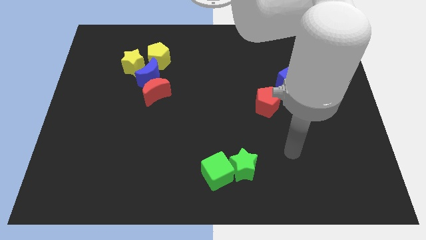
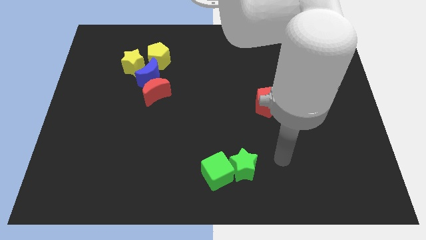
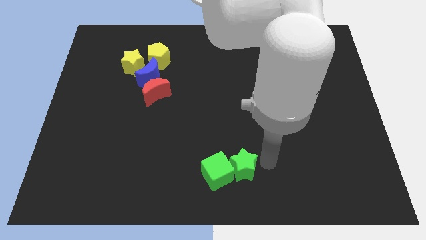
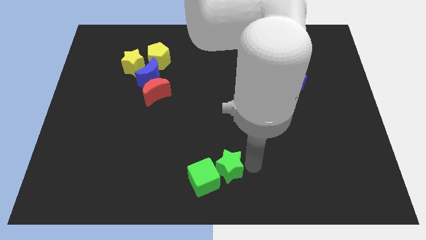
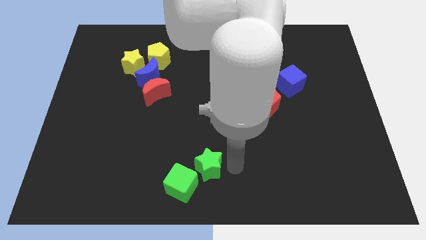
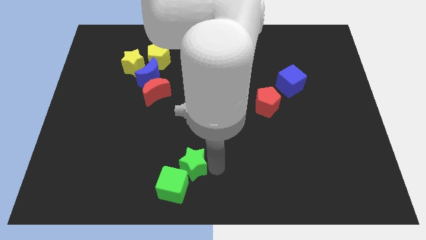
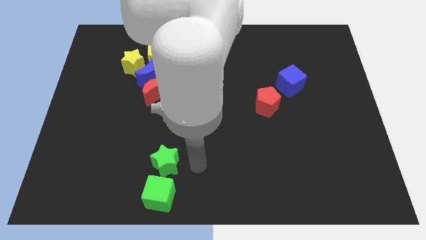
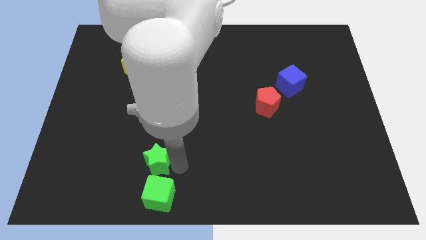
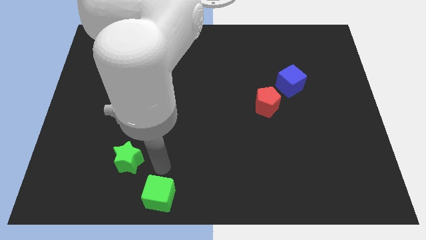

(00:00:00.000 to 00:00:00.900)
move the green cube away from the green star

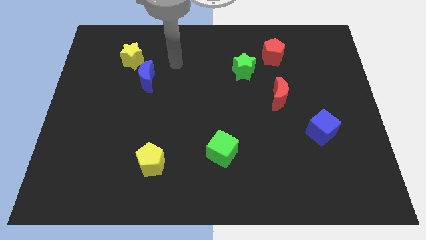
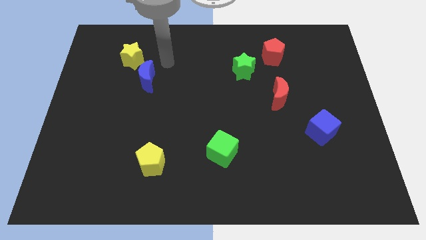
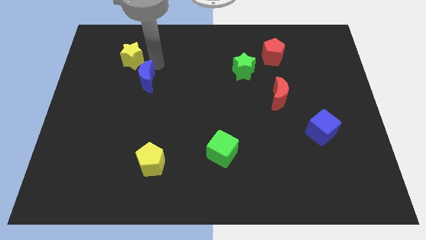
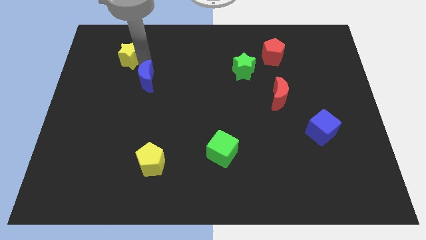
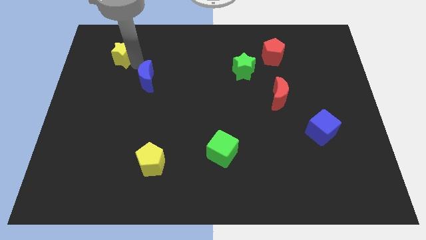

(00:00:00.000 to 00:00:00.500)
move the blue moon away from the yellow star

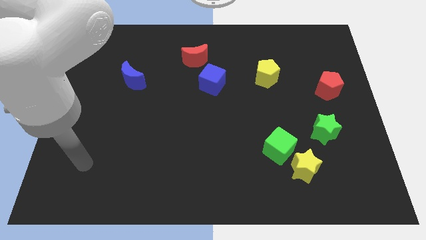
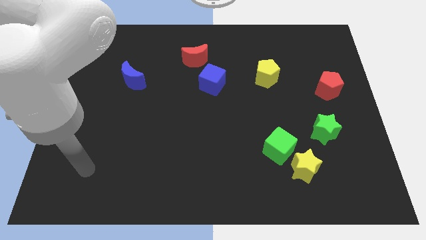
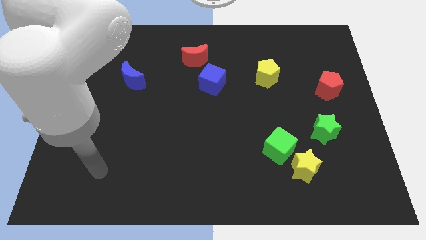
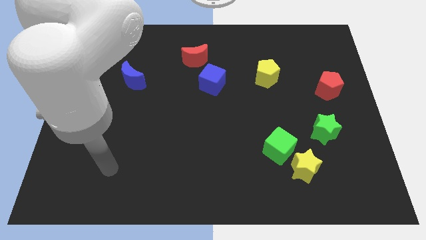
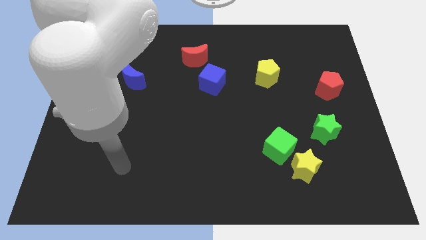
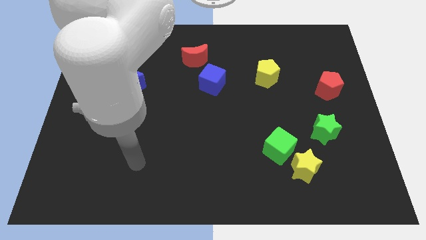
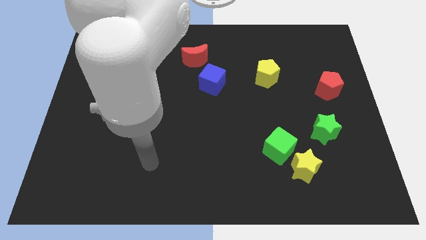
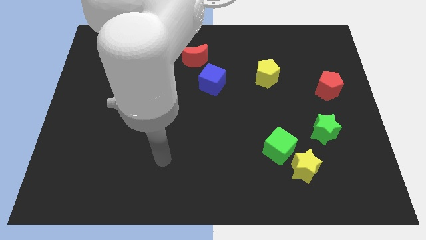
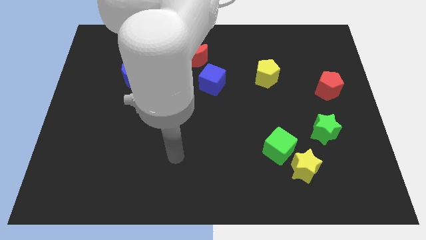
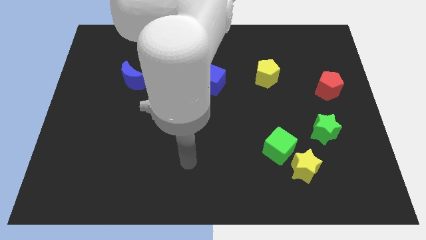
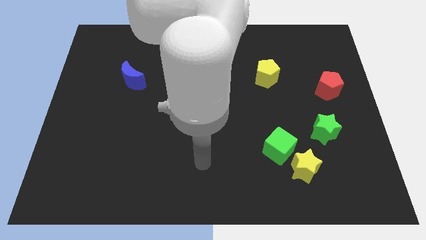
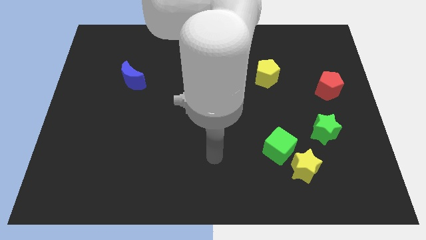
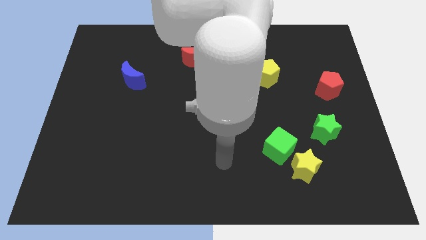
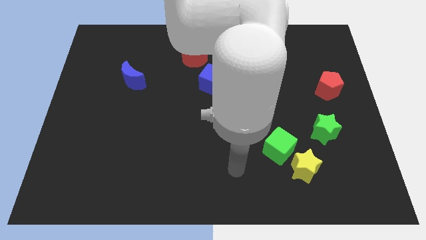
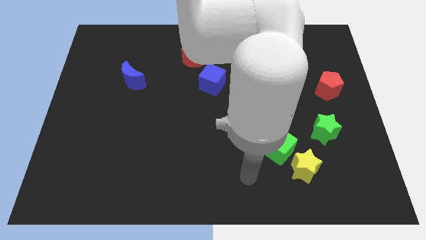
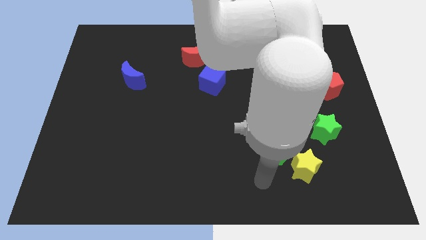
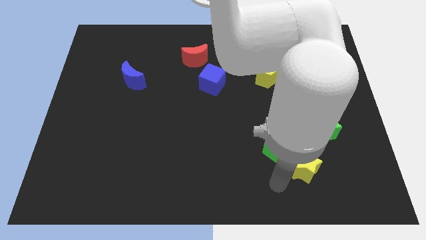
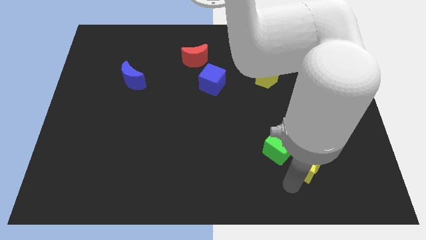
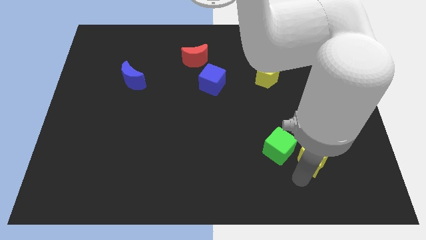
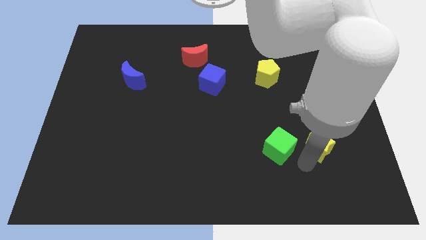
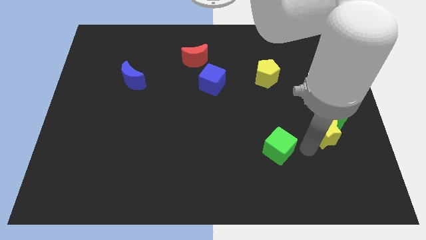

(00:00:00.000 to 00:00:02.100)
separate the green cube from the yellow star

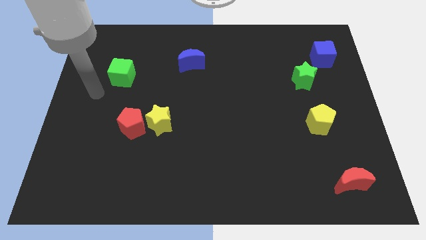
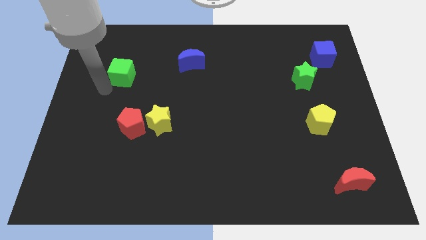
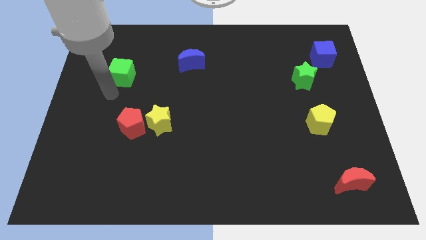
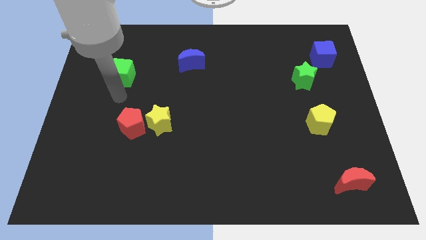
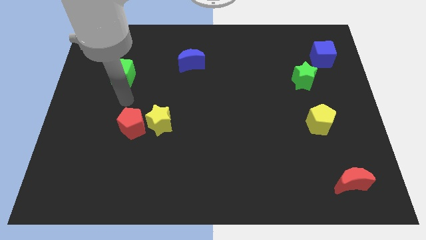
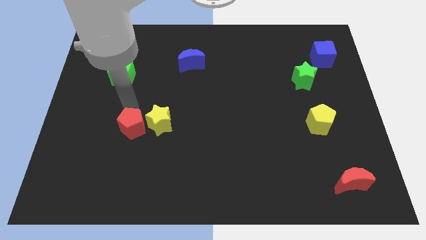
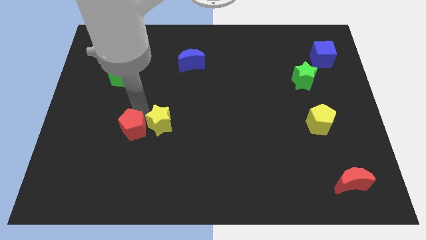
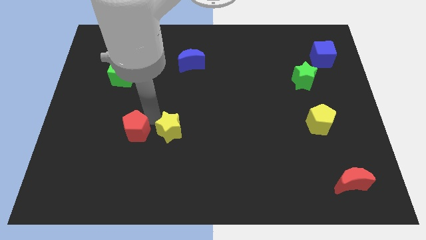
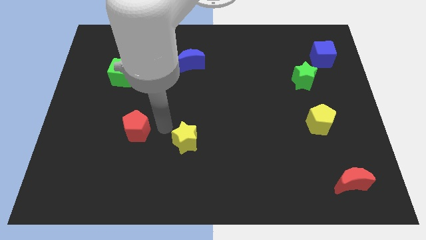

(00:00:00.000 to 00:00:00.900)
move the red pentagon away from the yellow star

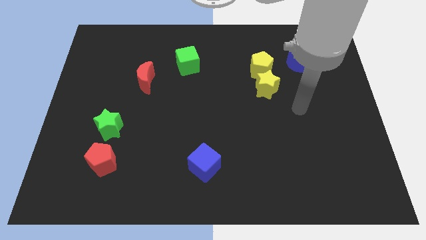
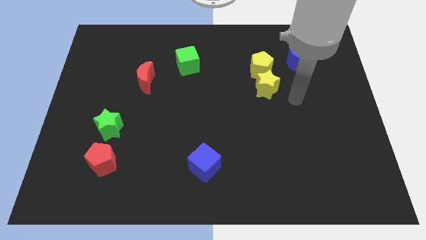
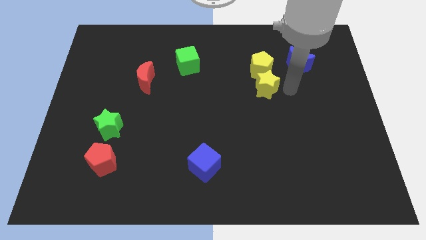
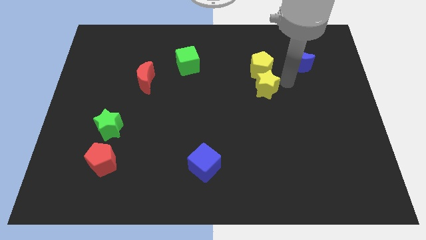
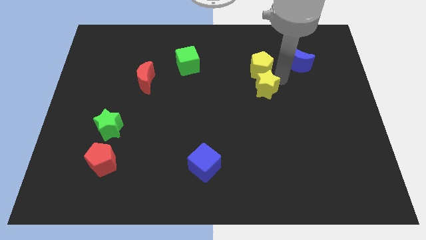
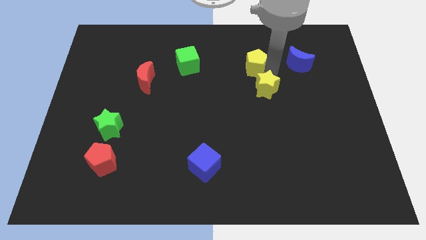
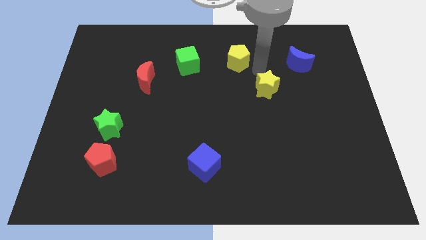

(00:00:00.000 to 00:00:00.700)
separate the yellow star from the yellow pentagon

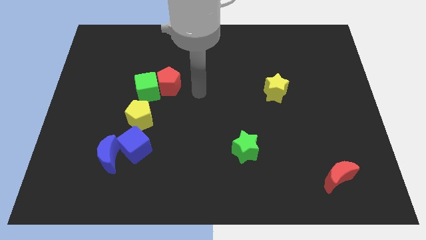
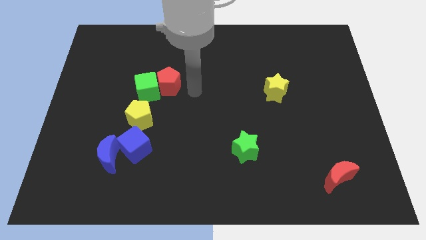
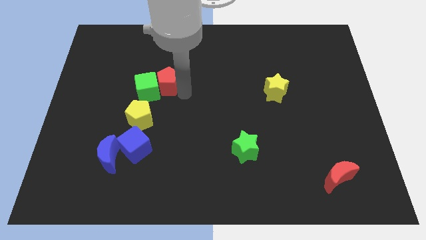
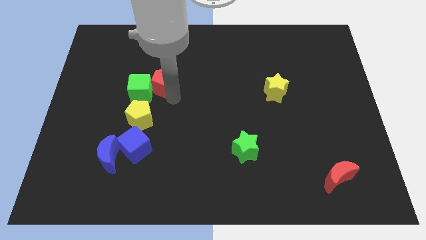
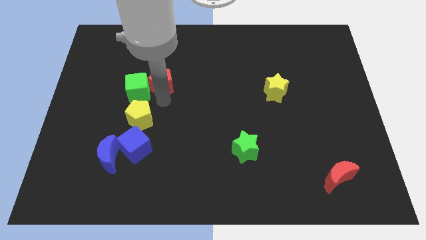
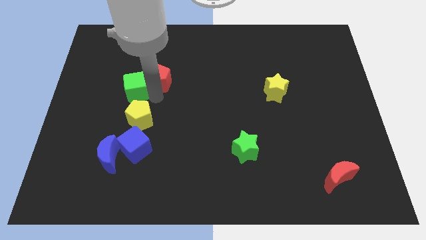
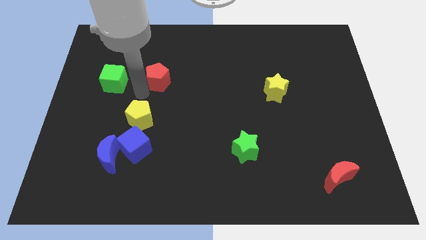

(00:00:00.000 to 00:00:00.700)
move the red pentagon away from the green cube

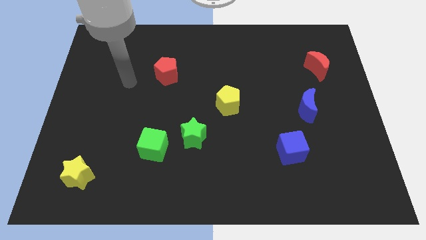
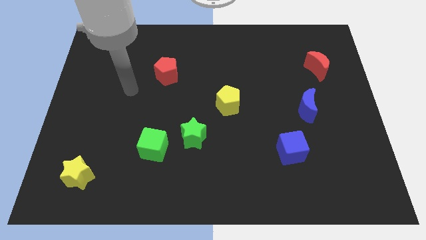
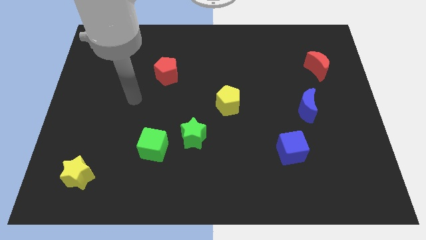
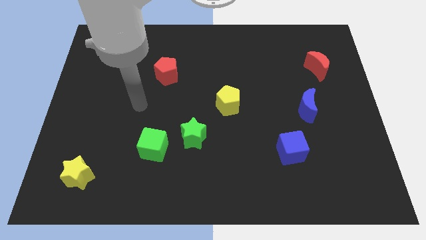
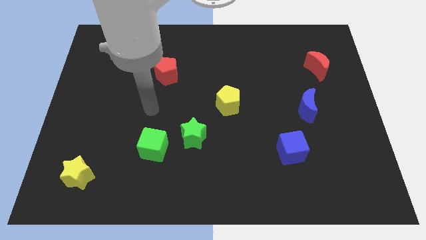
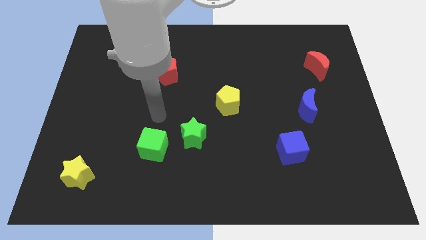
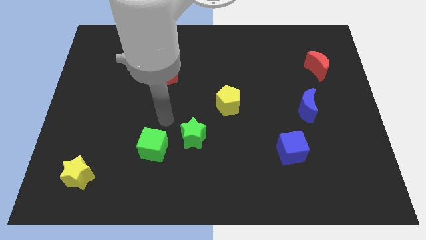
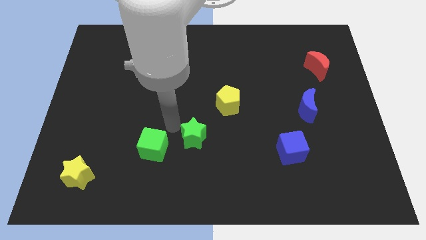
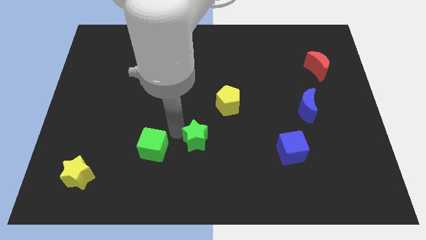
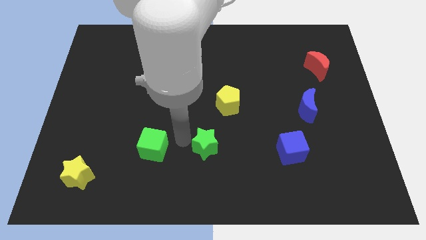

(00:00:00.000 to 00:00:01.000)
pull the green cube apart from the green star

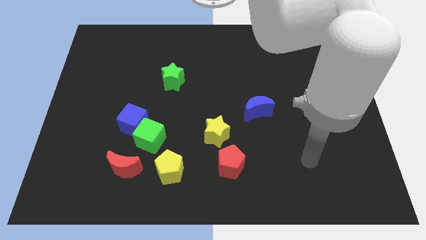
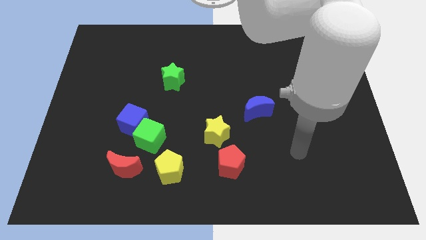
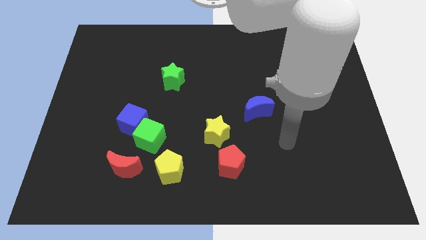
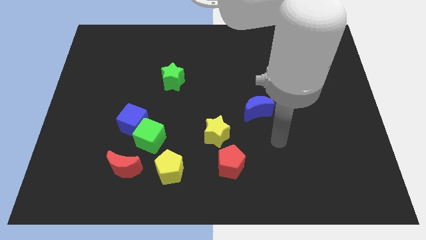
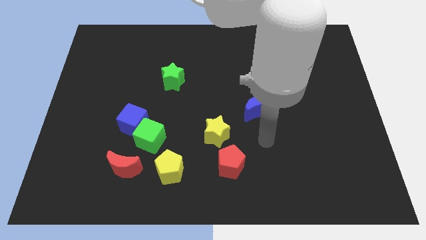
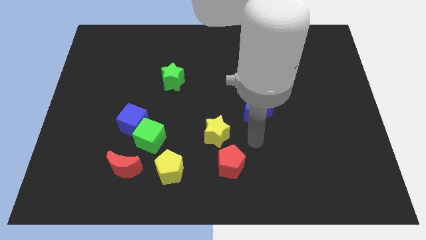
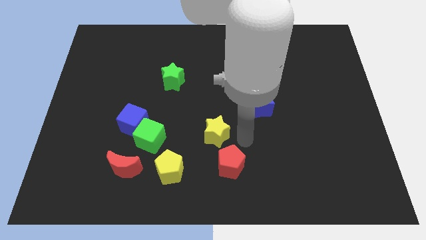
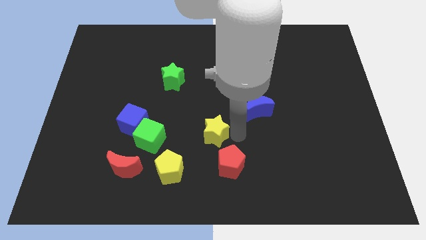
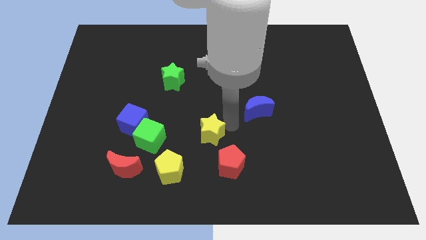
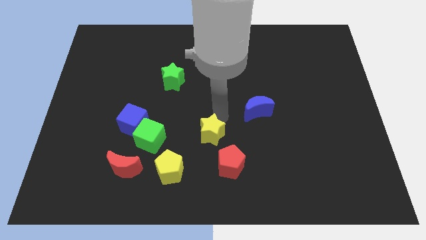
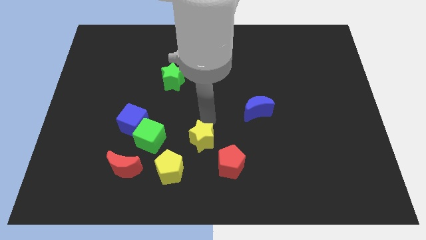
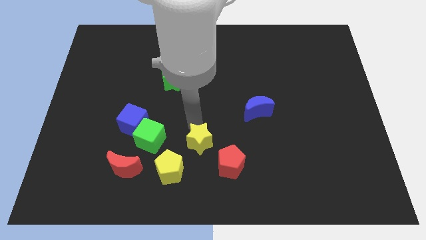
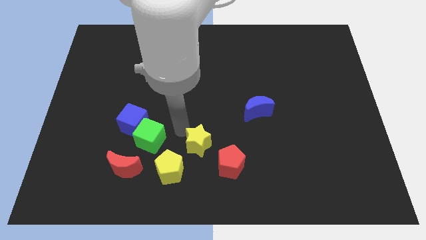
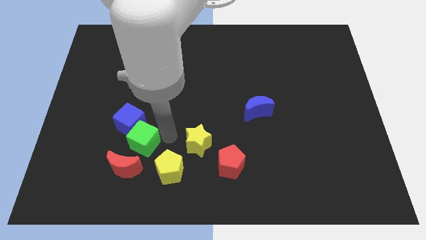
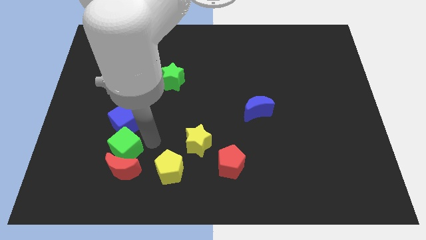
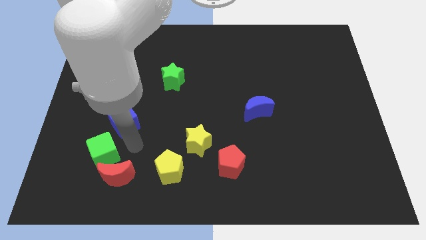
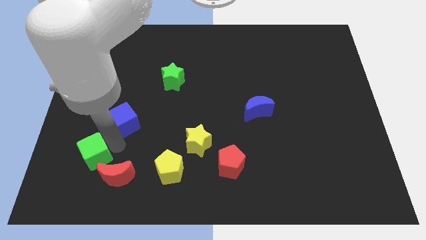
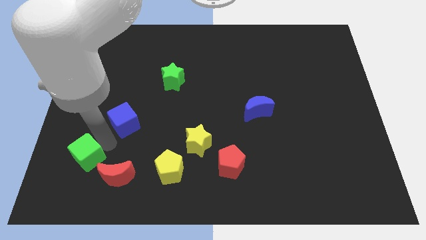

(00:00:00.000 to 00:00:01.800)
separate the blue cube from the green cube

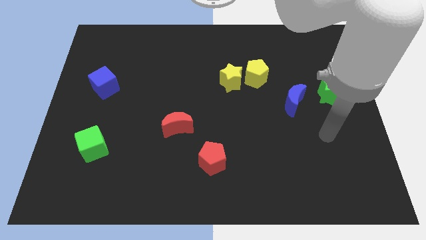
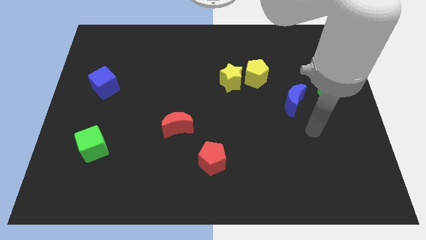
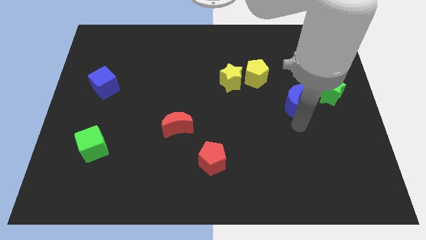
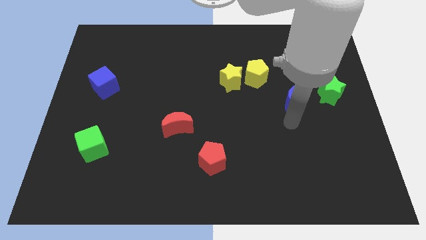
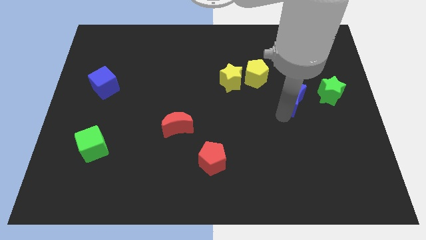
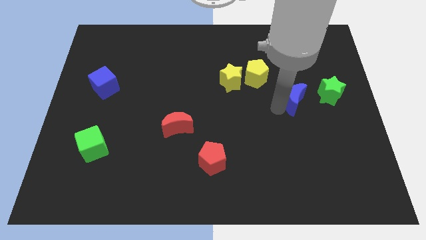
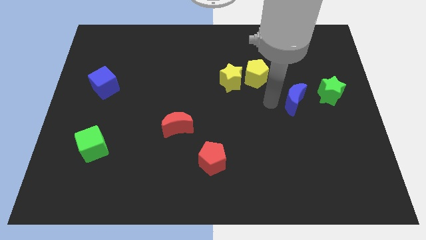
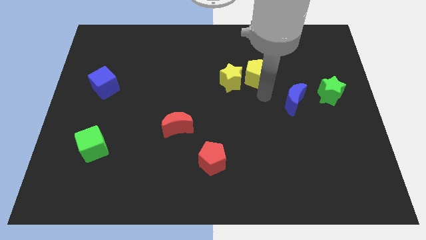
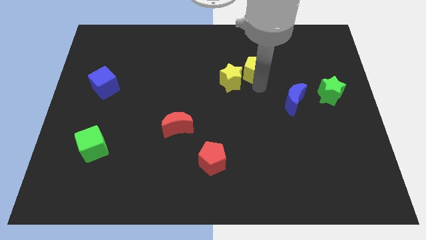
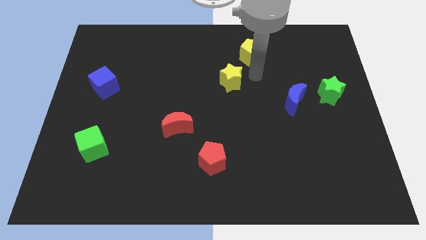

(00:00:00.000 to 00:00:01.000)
pull the yellow star apart from the yellow pentagon
